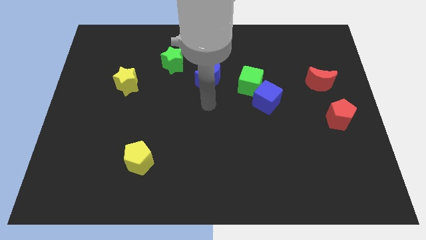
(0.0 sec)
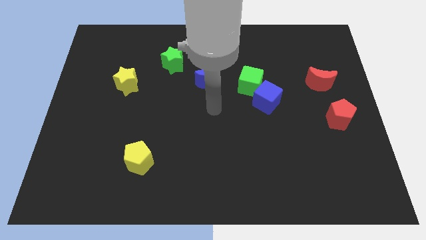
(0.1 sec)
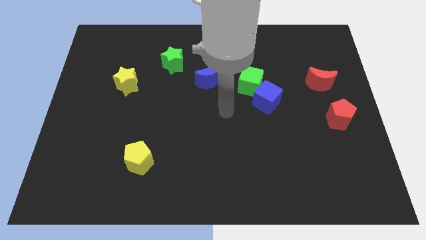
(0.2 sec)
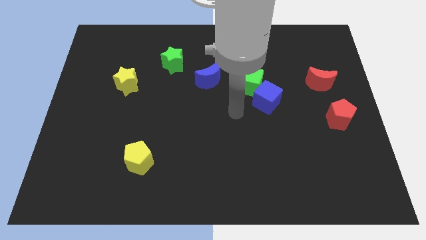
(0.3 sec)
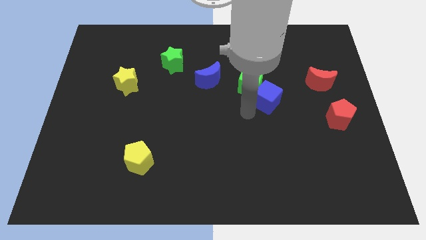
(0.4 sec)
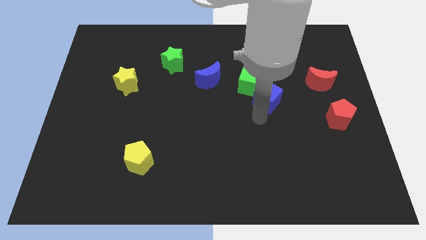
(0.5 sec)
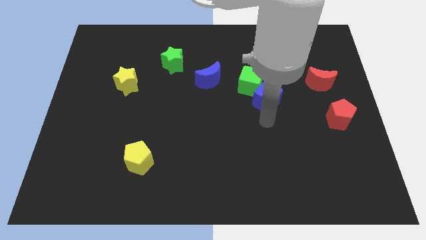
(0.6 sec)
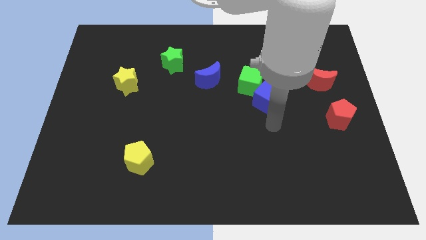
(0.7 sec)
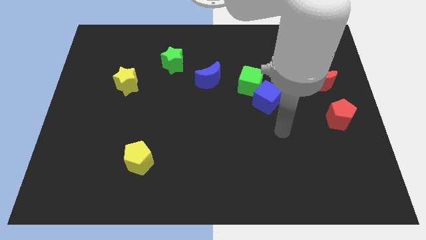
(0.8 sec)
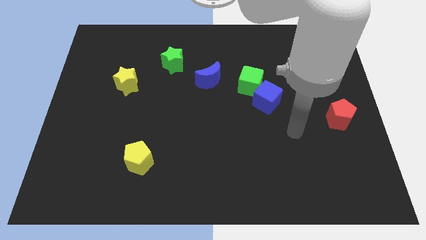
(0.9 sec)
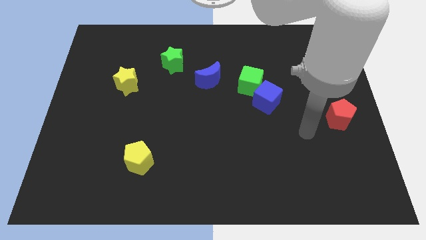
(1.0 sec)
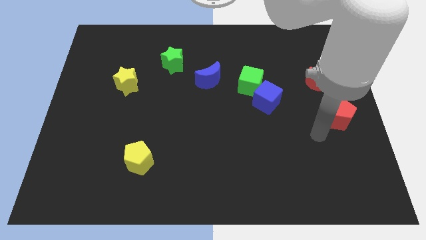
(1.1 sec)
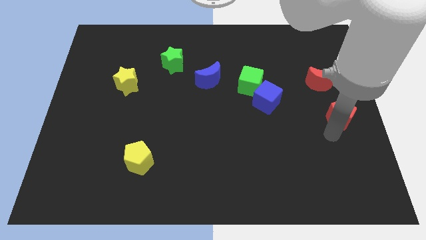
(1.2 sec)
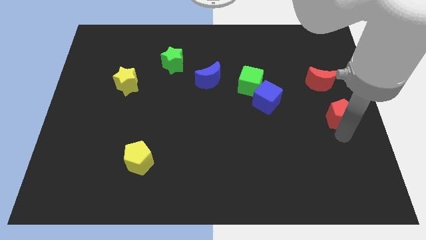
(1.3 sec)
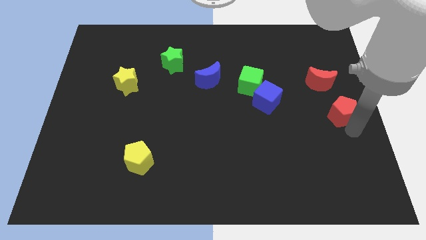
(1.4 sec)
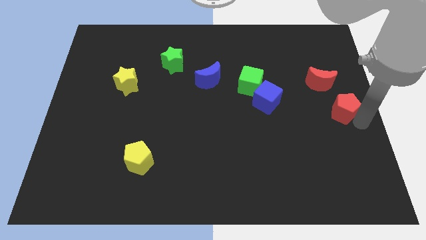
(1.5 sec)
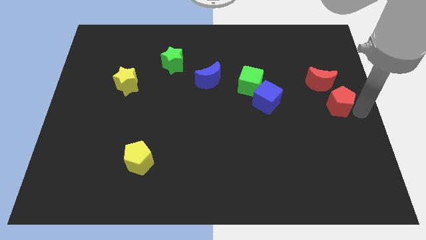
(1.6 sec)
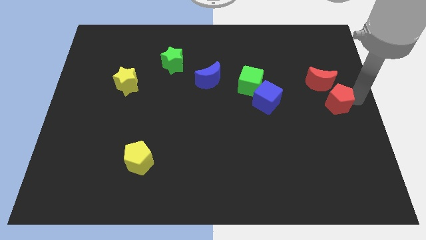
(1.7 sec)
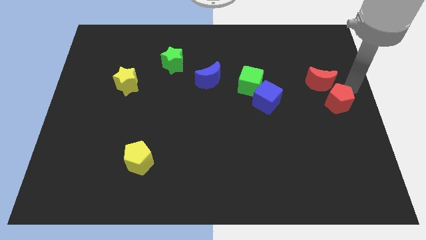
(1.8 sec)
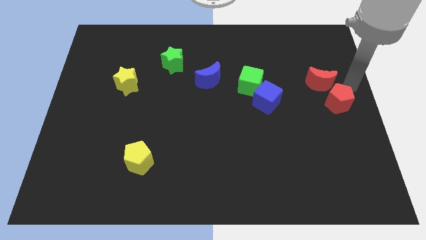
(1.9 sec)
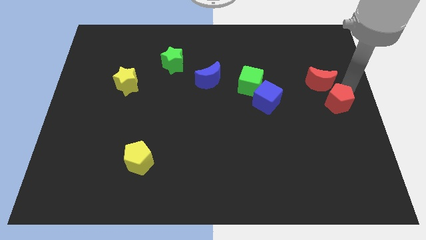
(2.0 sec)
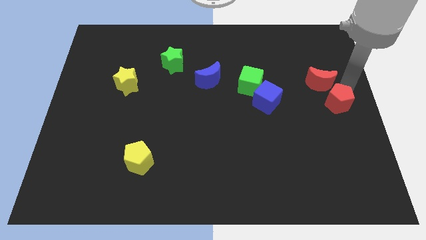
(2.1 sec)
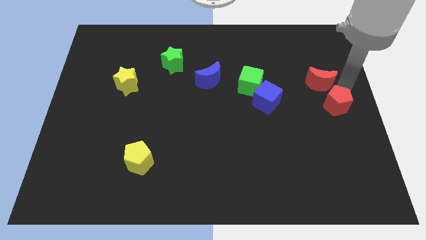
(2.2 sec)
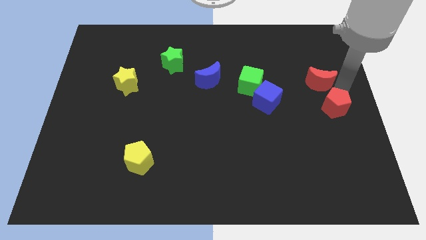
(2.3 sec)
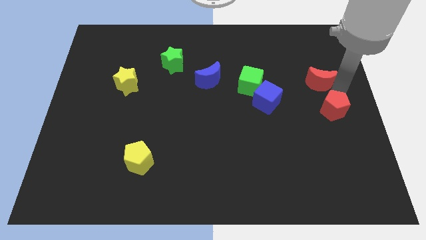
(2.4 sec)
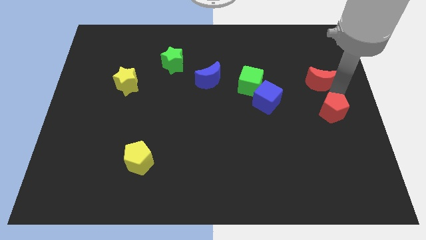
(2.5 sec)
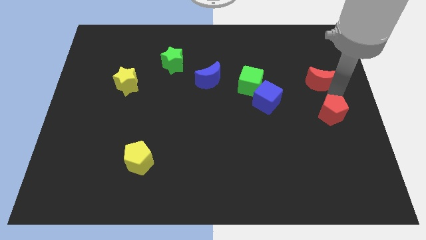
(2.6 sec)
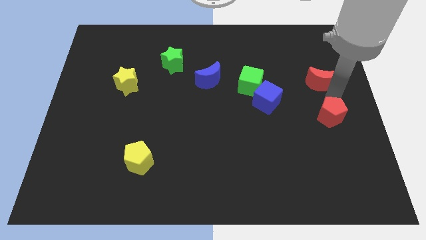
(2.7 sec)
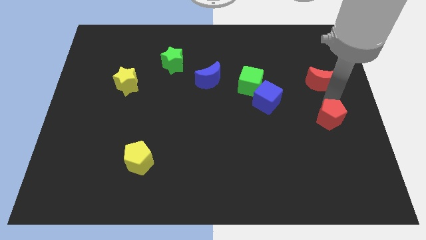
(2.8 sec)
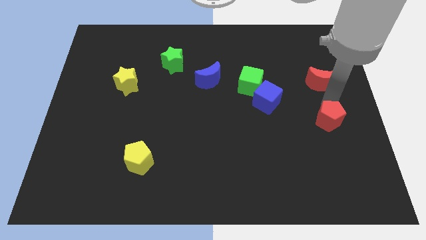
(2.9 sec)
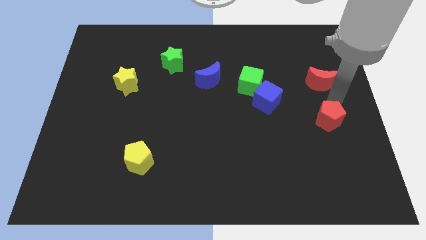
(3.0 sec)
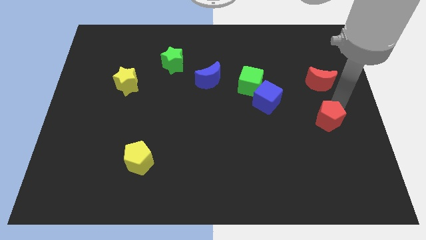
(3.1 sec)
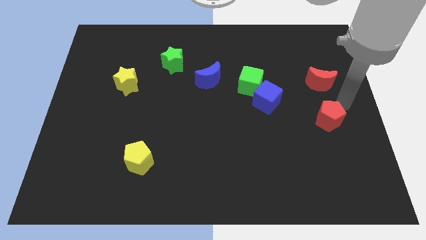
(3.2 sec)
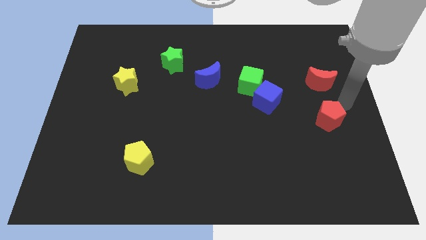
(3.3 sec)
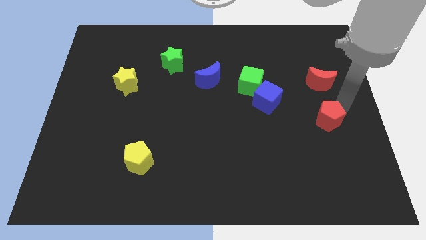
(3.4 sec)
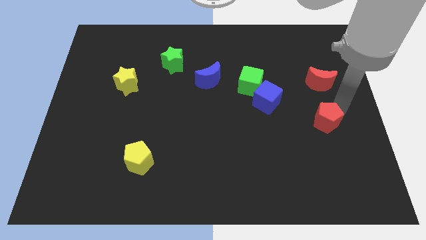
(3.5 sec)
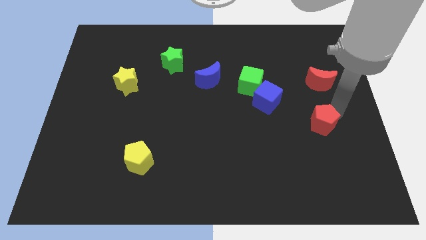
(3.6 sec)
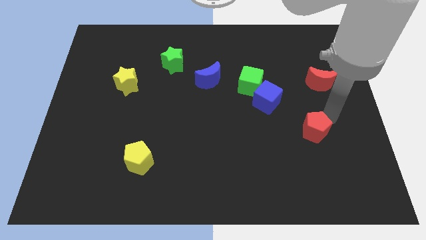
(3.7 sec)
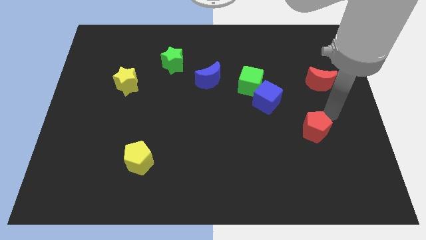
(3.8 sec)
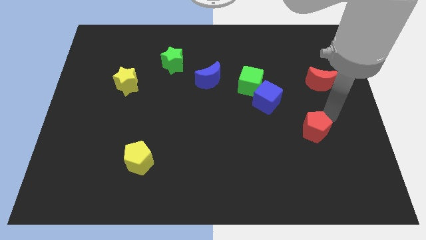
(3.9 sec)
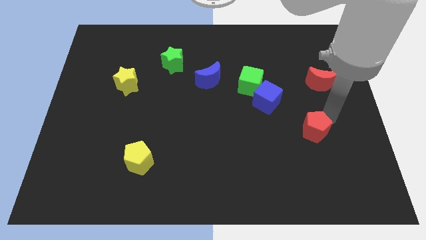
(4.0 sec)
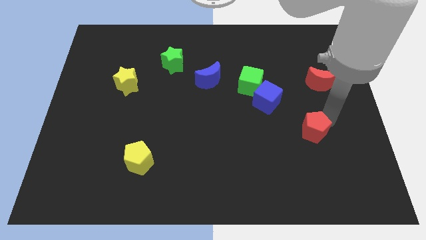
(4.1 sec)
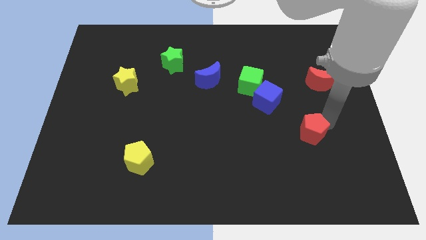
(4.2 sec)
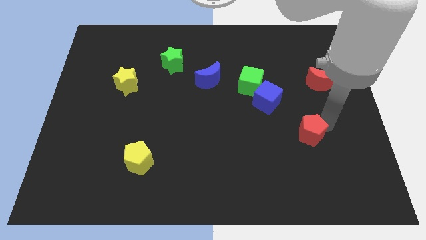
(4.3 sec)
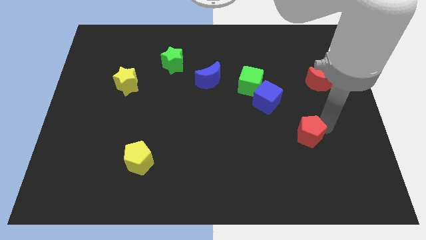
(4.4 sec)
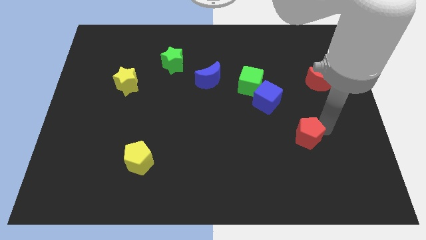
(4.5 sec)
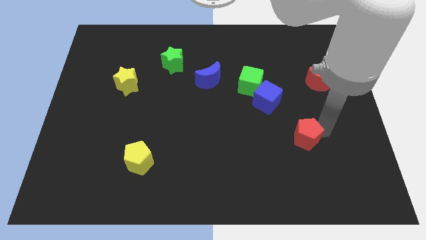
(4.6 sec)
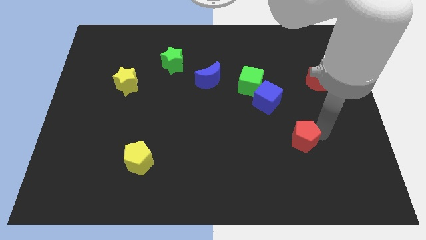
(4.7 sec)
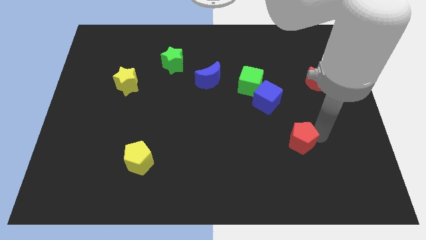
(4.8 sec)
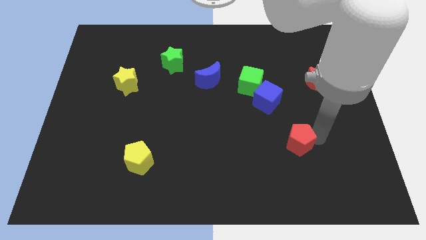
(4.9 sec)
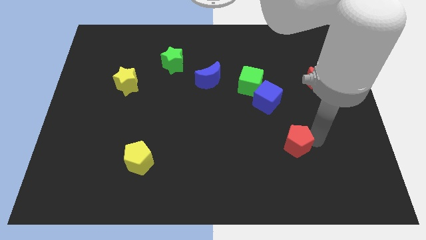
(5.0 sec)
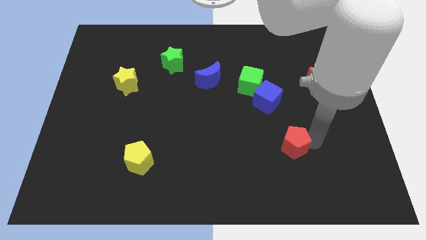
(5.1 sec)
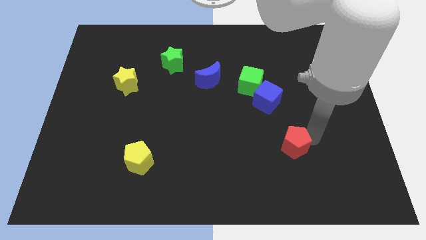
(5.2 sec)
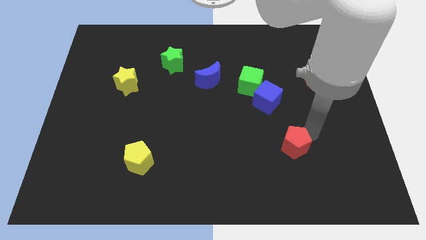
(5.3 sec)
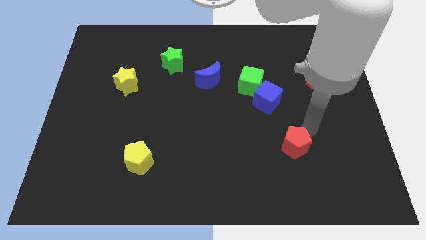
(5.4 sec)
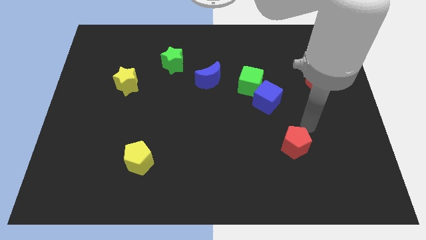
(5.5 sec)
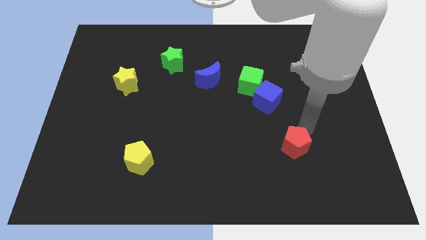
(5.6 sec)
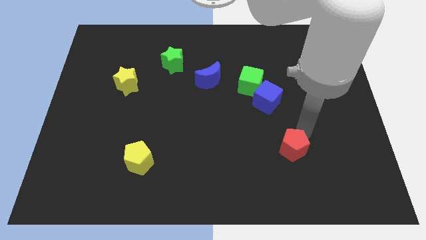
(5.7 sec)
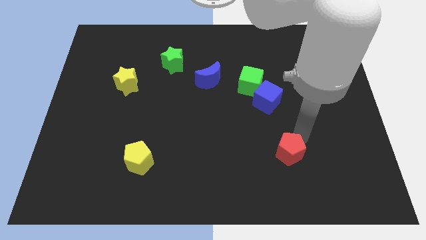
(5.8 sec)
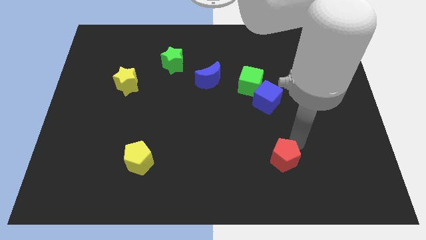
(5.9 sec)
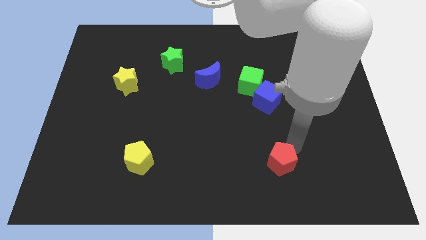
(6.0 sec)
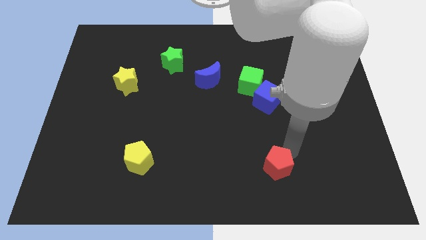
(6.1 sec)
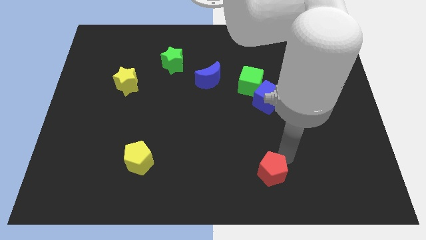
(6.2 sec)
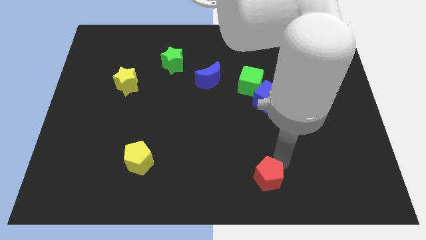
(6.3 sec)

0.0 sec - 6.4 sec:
slide the red pentagon to the bottom side
